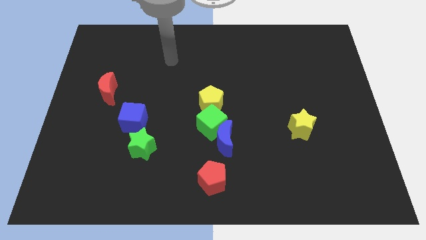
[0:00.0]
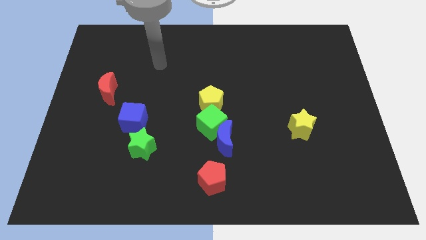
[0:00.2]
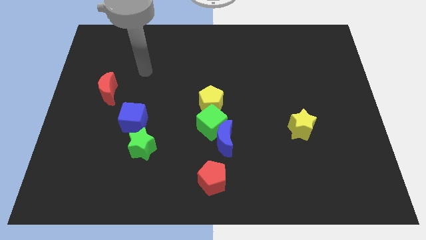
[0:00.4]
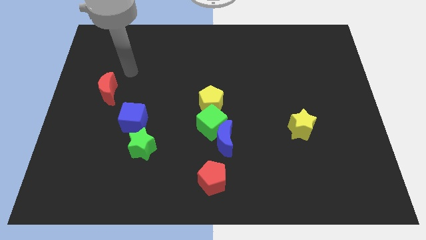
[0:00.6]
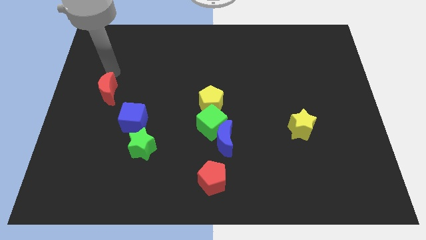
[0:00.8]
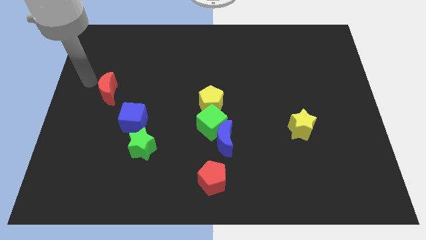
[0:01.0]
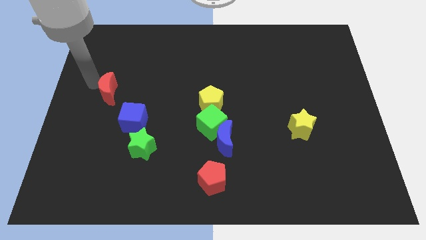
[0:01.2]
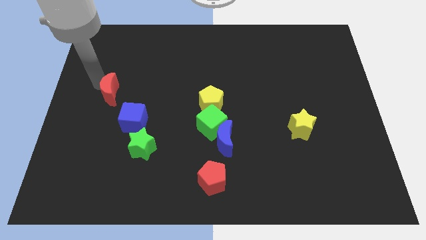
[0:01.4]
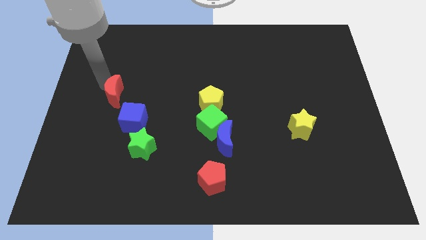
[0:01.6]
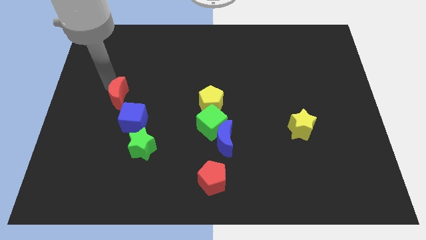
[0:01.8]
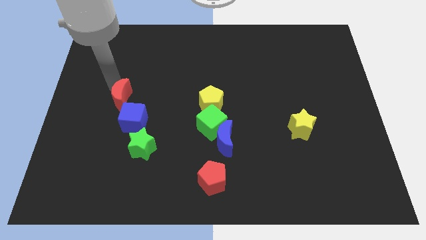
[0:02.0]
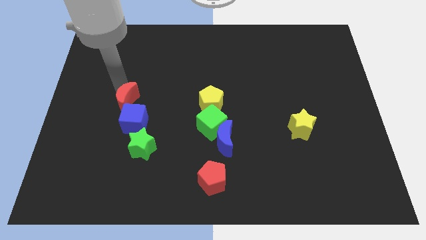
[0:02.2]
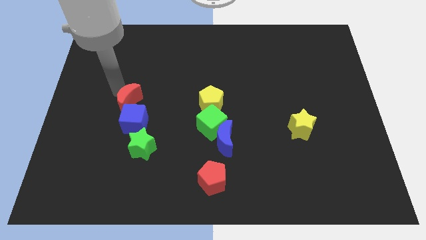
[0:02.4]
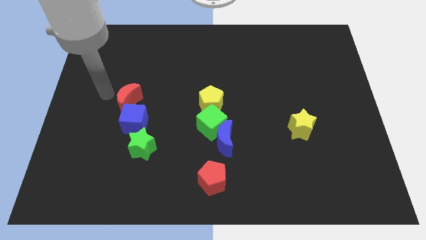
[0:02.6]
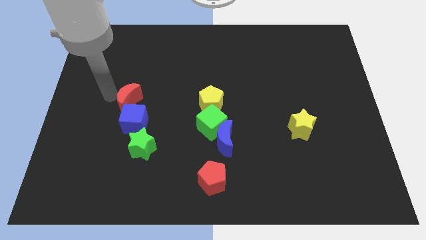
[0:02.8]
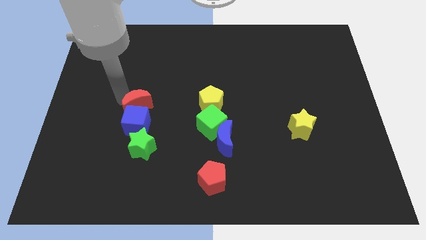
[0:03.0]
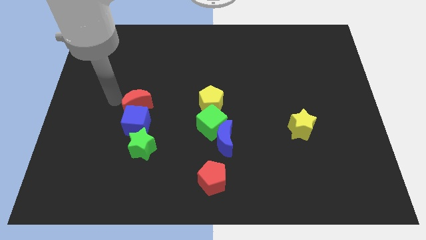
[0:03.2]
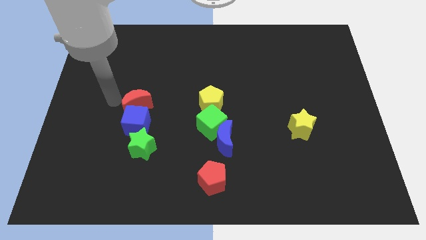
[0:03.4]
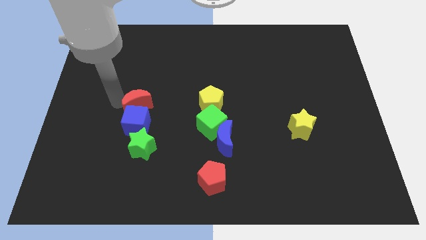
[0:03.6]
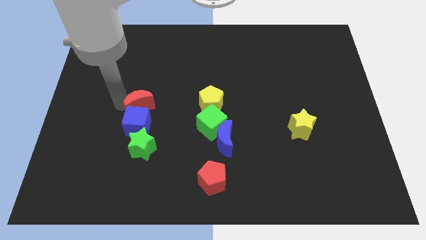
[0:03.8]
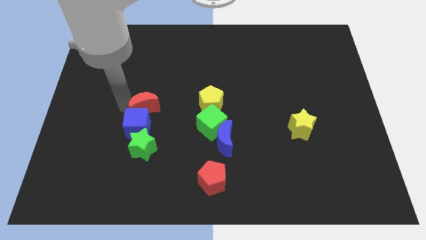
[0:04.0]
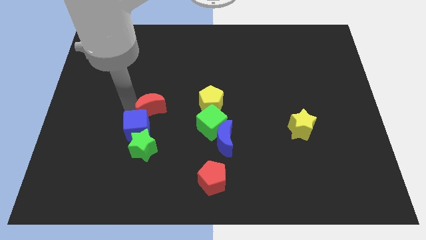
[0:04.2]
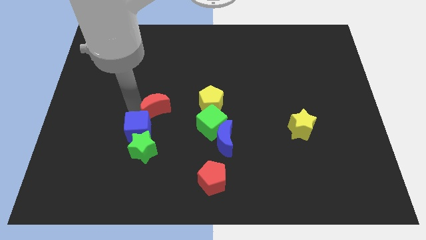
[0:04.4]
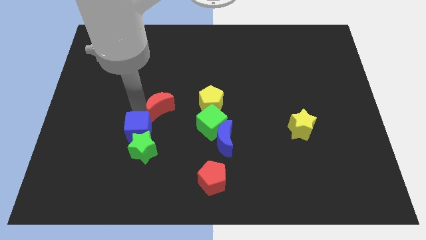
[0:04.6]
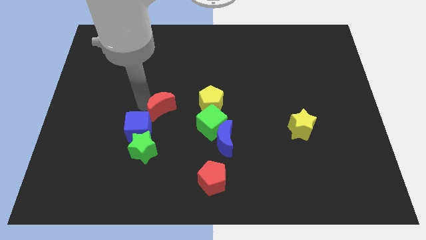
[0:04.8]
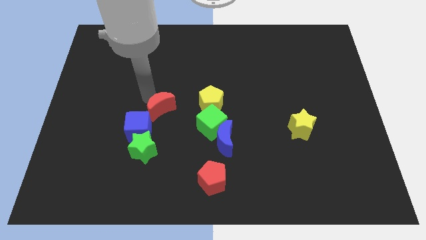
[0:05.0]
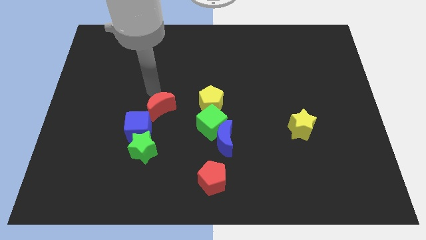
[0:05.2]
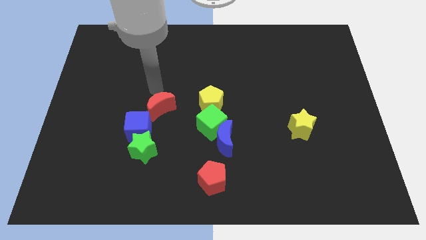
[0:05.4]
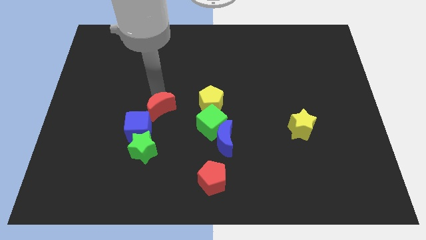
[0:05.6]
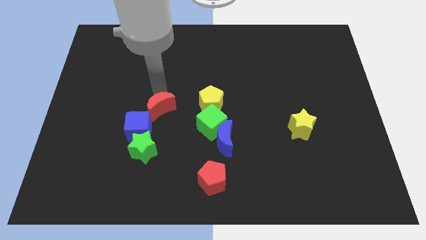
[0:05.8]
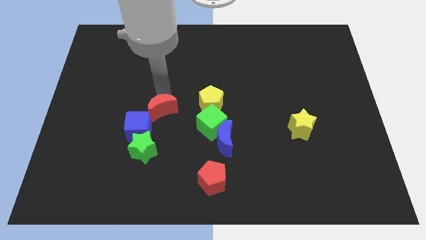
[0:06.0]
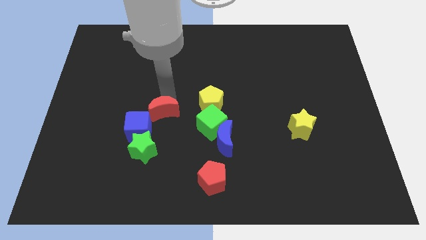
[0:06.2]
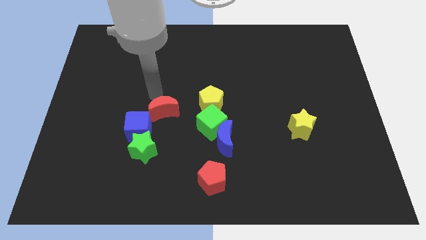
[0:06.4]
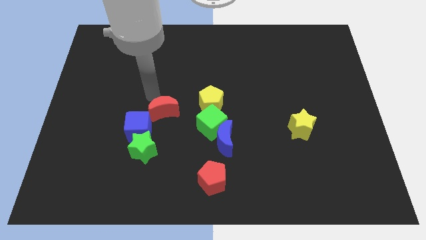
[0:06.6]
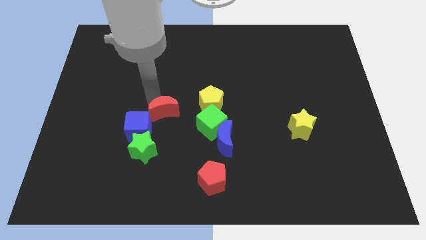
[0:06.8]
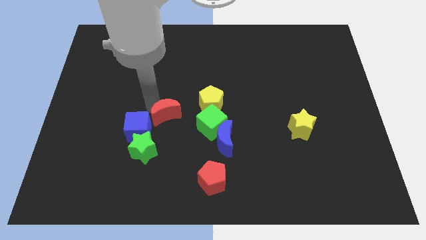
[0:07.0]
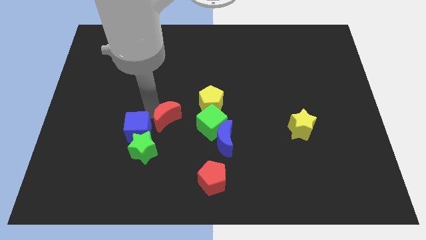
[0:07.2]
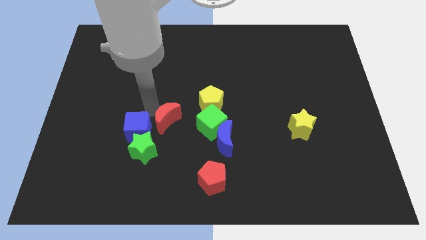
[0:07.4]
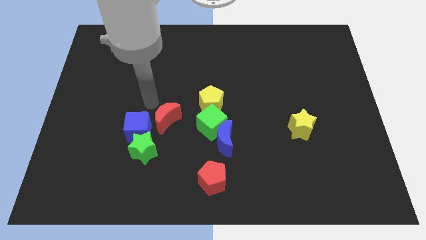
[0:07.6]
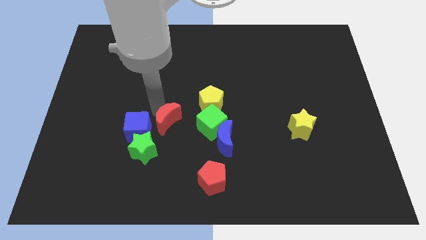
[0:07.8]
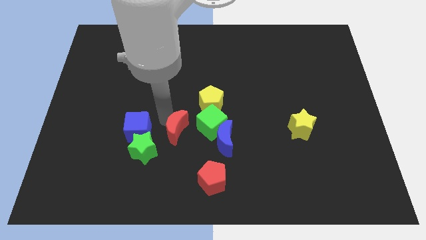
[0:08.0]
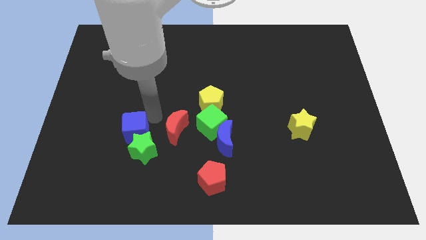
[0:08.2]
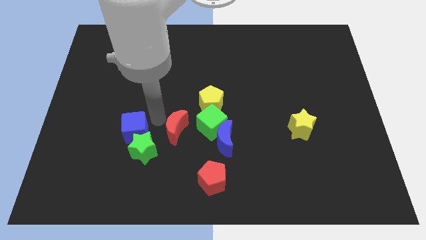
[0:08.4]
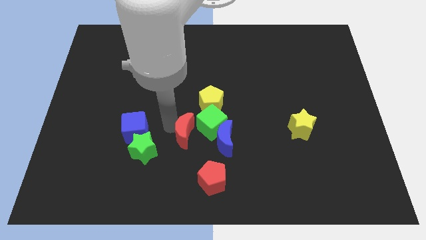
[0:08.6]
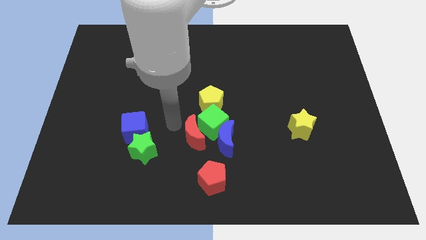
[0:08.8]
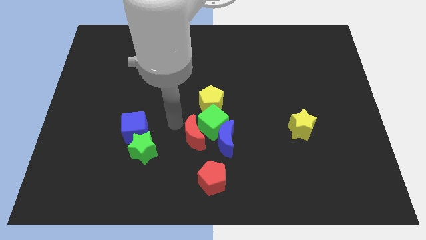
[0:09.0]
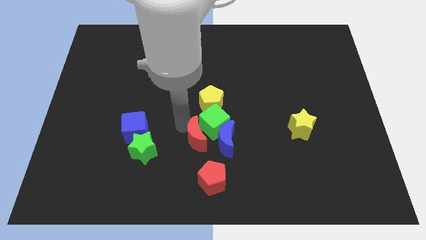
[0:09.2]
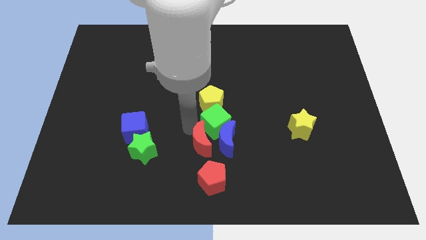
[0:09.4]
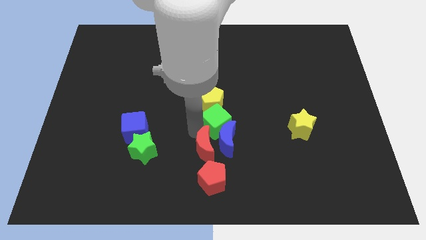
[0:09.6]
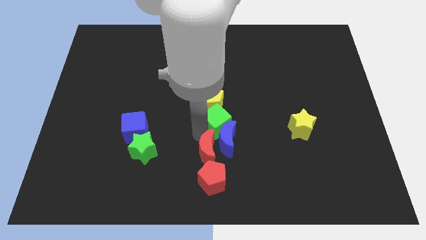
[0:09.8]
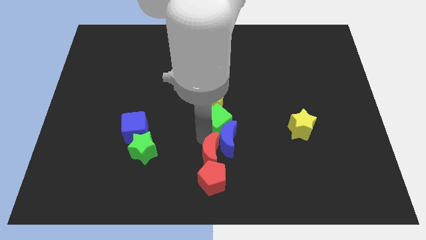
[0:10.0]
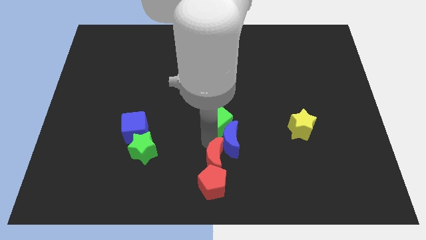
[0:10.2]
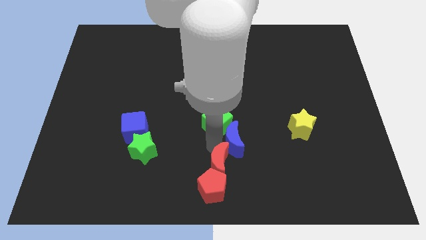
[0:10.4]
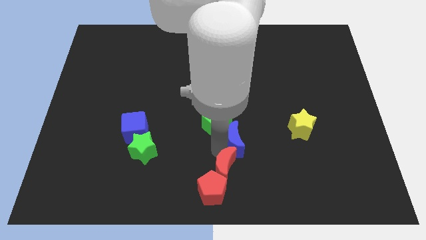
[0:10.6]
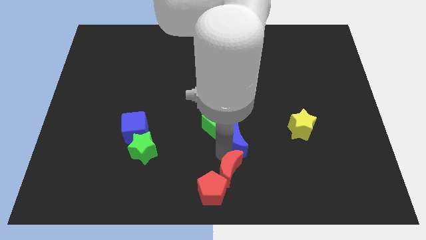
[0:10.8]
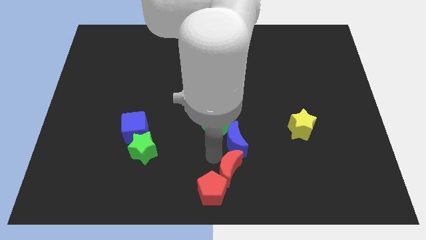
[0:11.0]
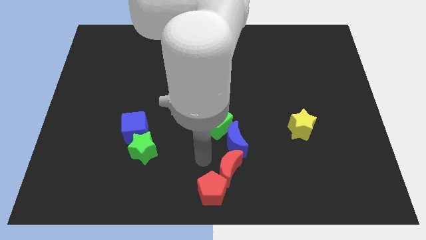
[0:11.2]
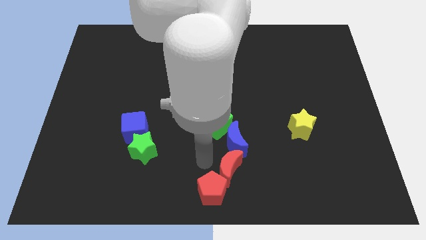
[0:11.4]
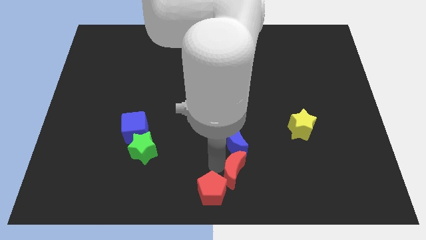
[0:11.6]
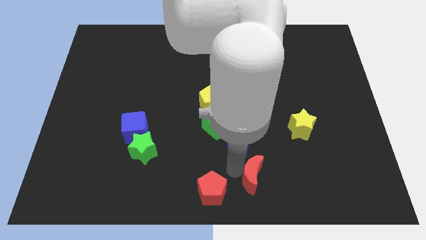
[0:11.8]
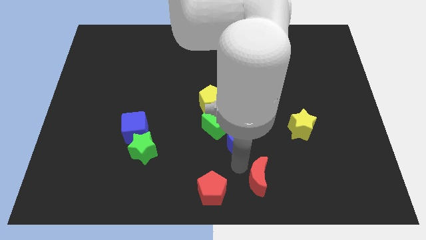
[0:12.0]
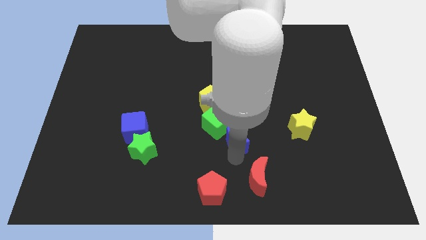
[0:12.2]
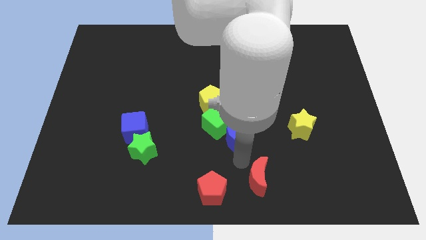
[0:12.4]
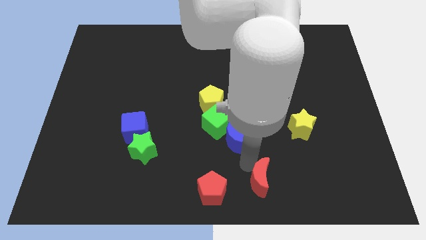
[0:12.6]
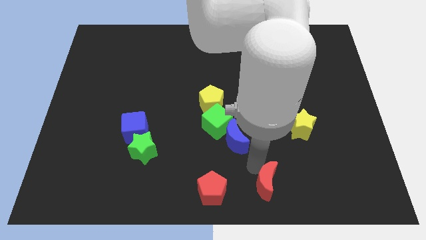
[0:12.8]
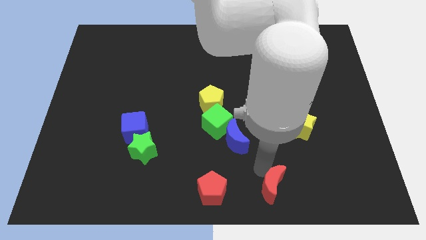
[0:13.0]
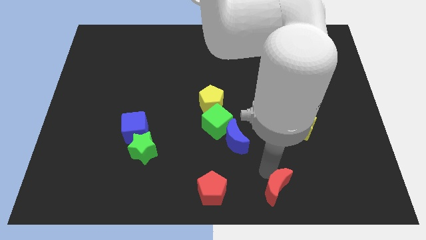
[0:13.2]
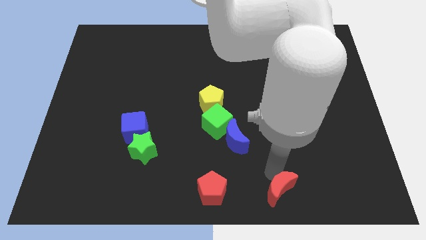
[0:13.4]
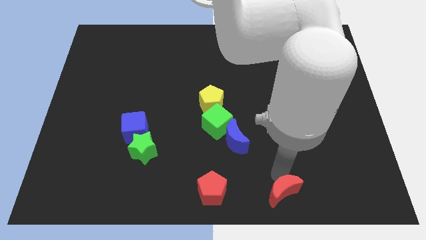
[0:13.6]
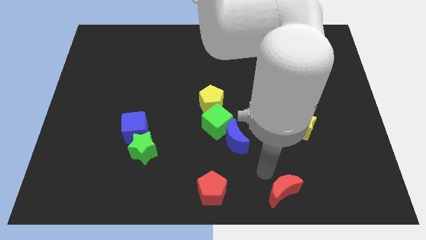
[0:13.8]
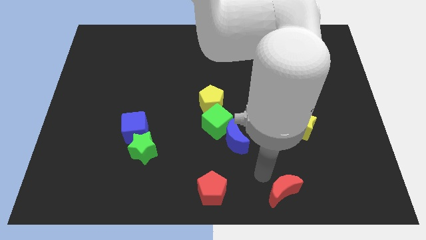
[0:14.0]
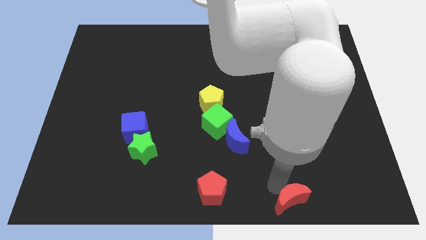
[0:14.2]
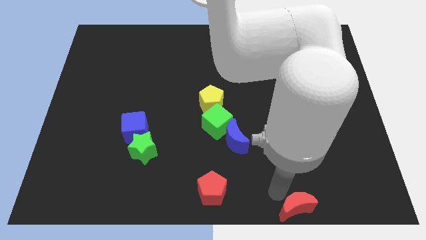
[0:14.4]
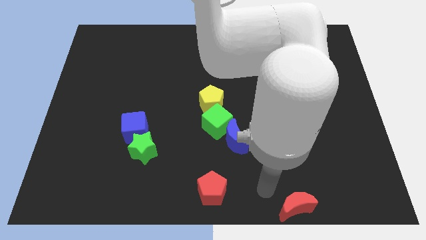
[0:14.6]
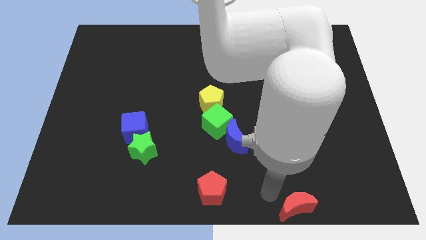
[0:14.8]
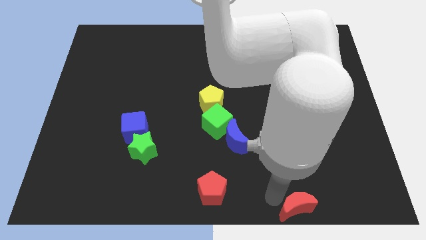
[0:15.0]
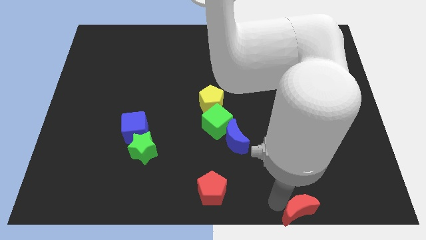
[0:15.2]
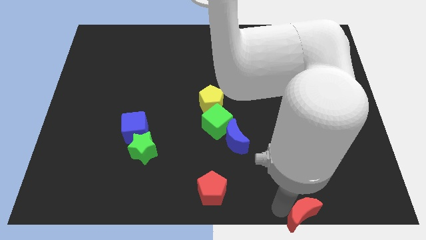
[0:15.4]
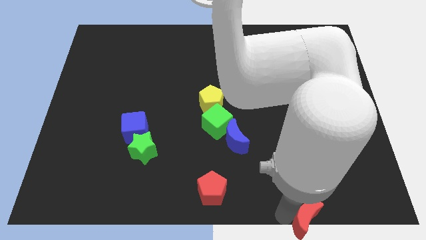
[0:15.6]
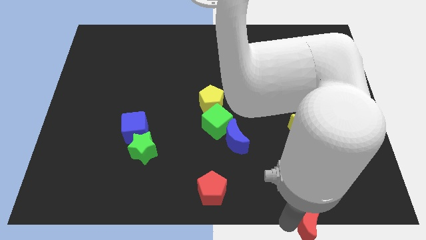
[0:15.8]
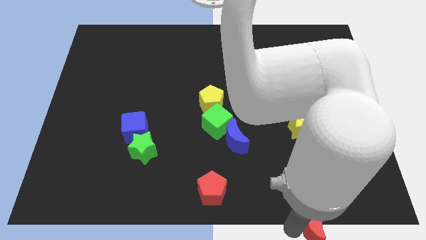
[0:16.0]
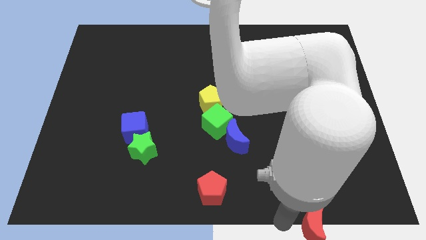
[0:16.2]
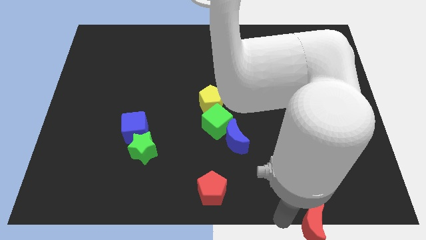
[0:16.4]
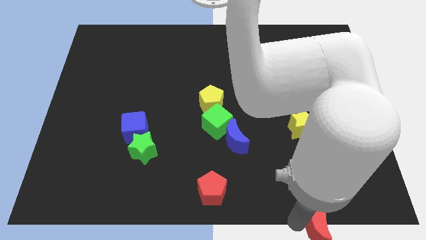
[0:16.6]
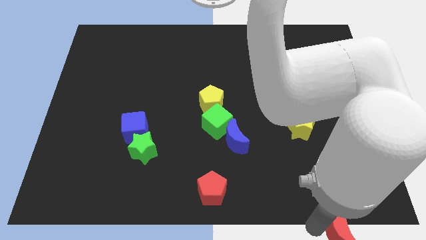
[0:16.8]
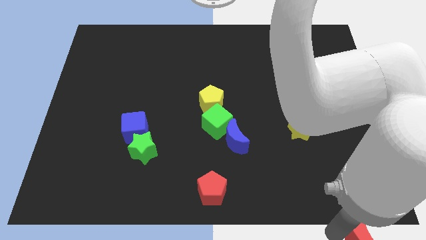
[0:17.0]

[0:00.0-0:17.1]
slide the red moon to the bottom right corner
